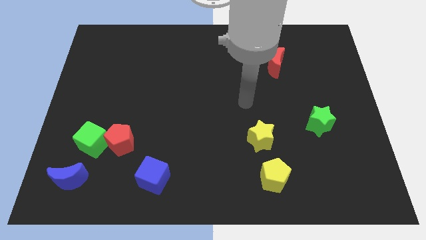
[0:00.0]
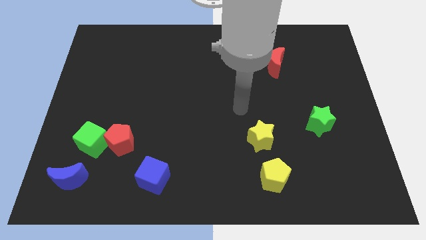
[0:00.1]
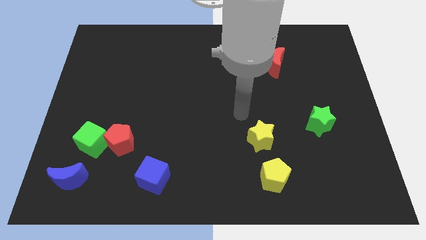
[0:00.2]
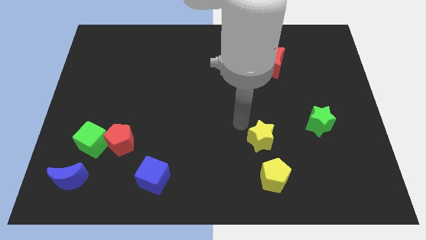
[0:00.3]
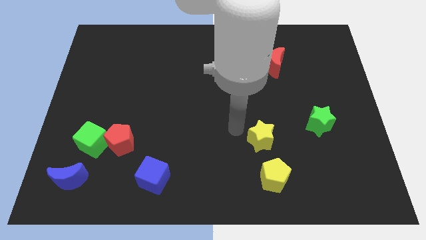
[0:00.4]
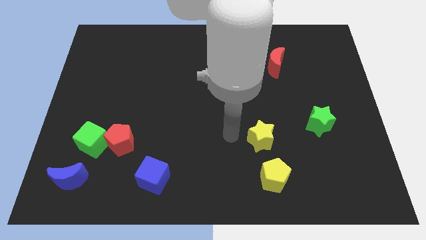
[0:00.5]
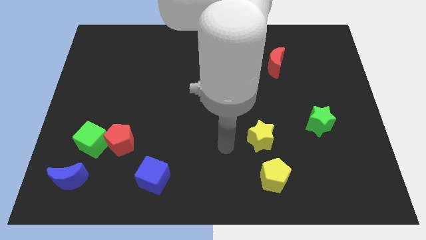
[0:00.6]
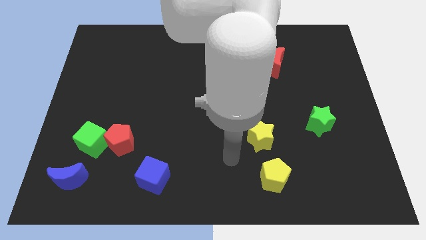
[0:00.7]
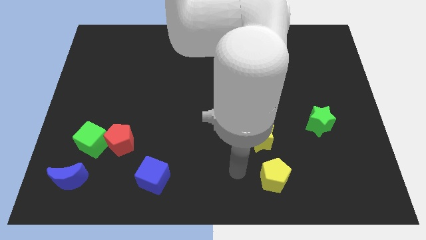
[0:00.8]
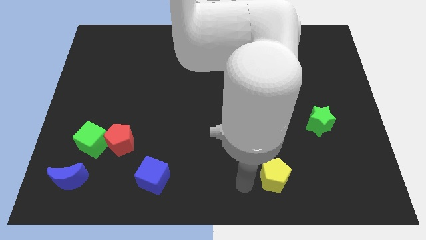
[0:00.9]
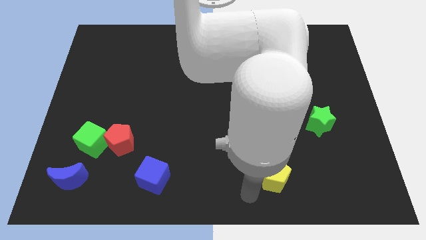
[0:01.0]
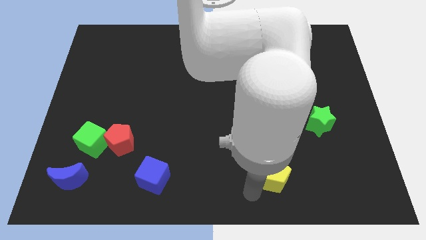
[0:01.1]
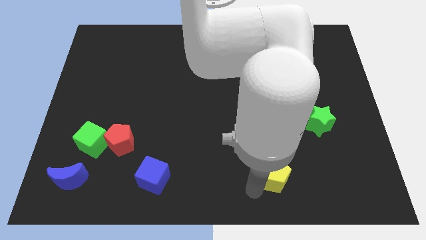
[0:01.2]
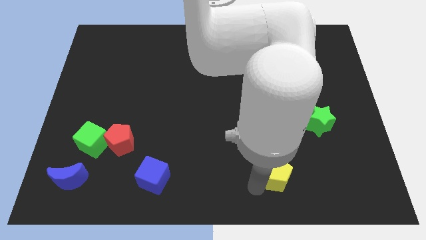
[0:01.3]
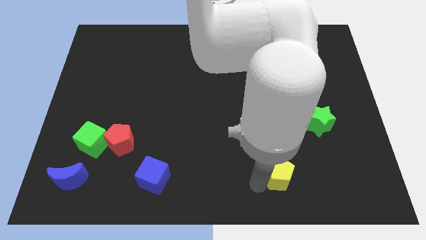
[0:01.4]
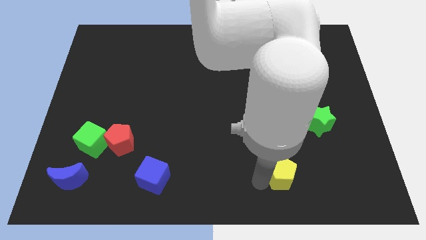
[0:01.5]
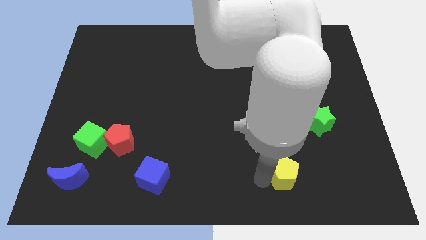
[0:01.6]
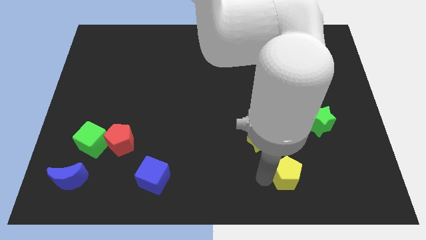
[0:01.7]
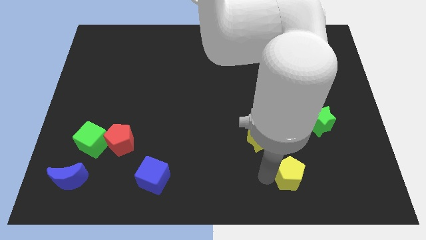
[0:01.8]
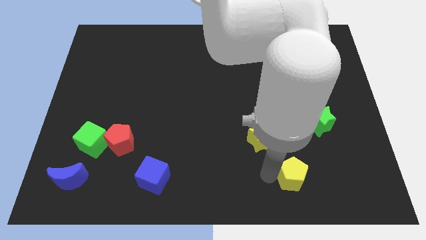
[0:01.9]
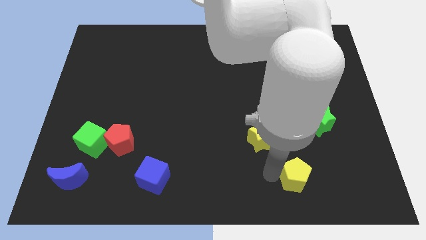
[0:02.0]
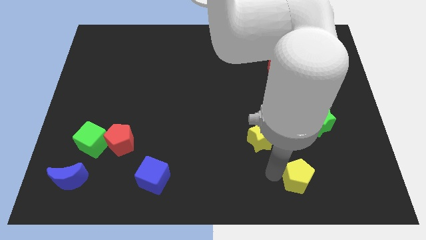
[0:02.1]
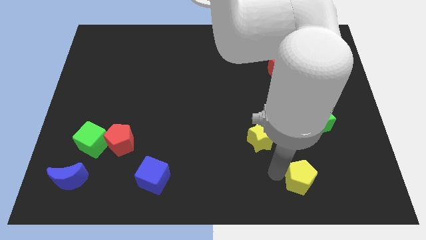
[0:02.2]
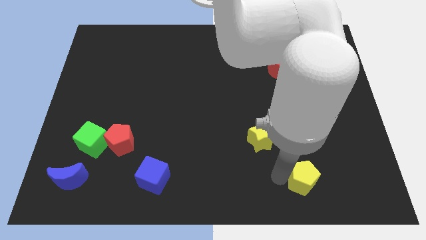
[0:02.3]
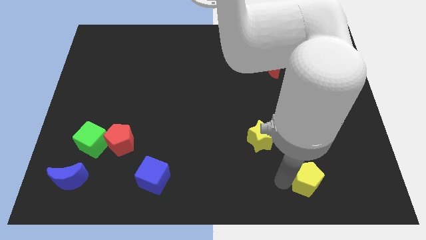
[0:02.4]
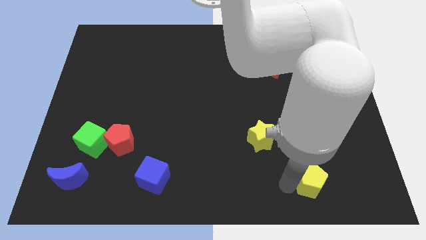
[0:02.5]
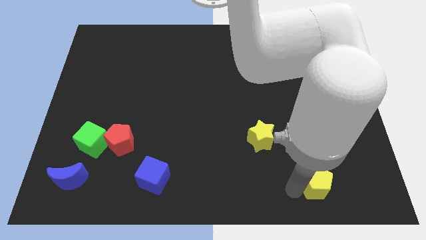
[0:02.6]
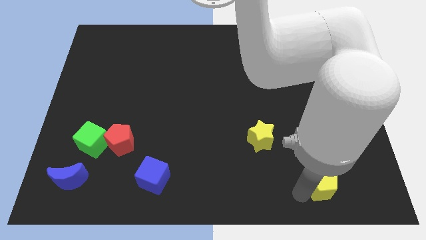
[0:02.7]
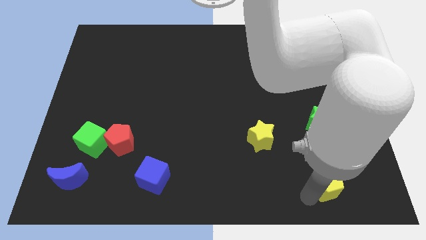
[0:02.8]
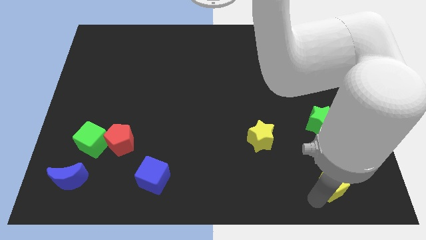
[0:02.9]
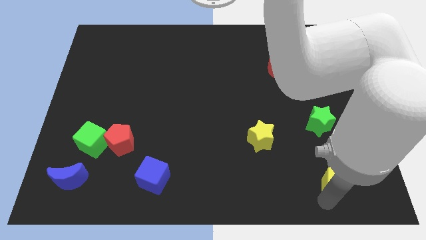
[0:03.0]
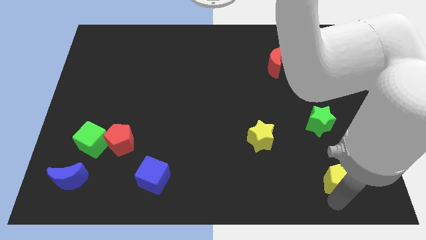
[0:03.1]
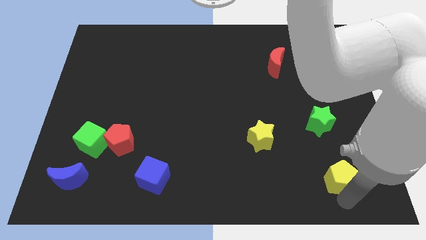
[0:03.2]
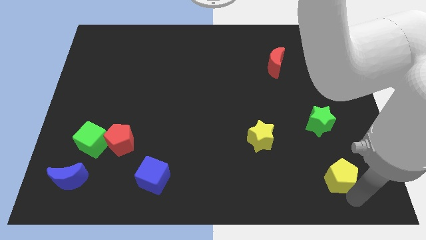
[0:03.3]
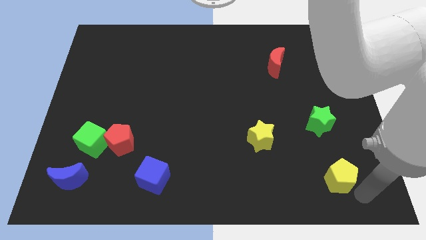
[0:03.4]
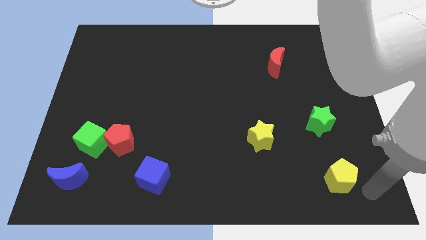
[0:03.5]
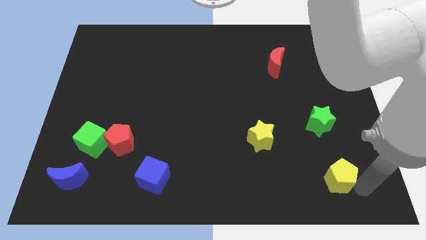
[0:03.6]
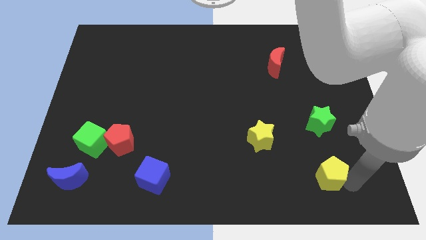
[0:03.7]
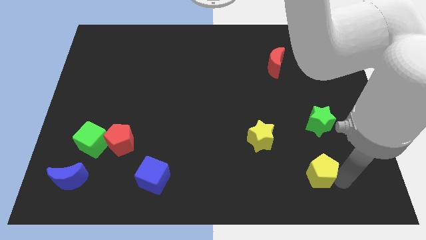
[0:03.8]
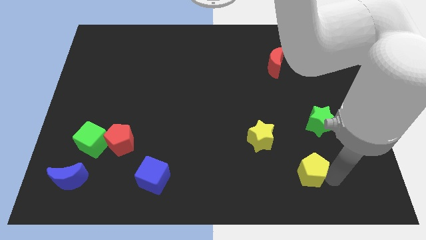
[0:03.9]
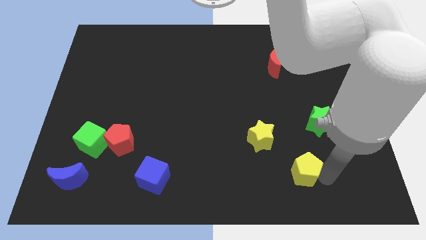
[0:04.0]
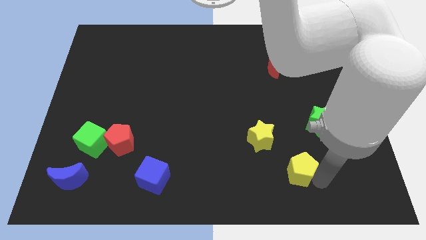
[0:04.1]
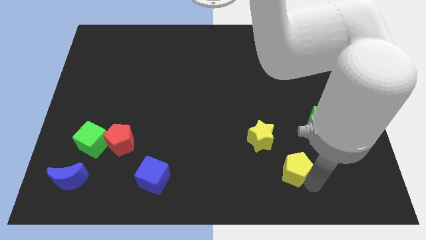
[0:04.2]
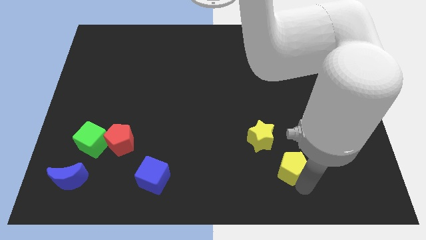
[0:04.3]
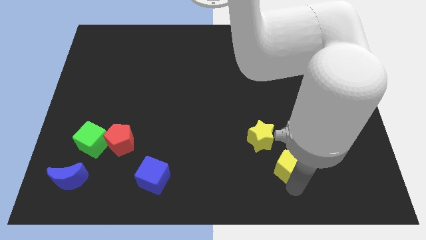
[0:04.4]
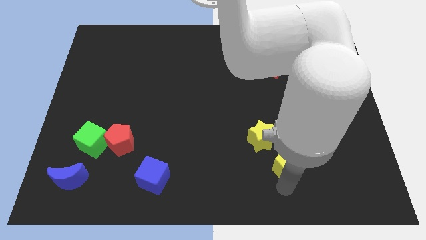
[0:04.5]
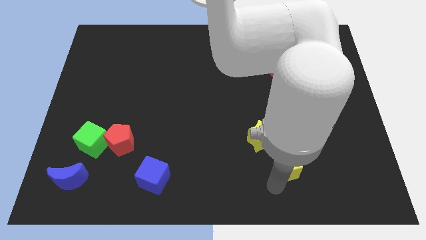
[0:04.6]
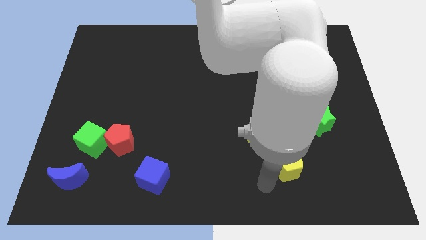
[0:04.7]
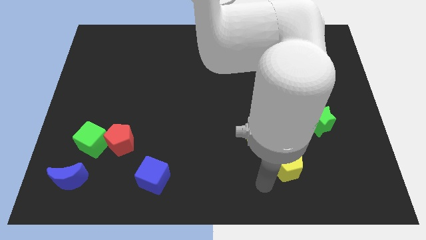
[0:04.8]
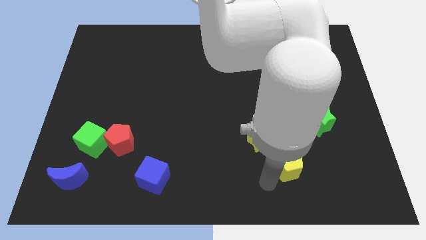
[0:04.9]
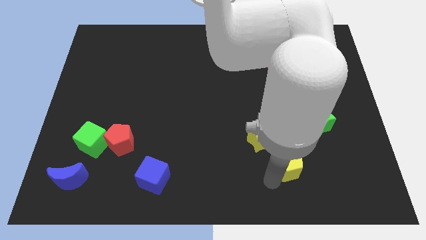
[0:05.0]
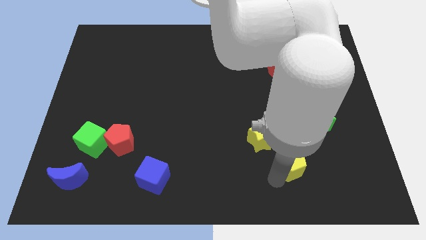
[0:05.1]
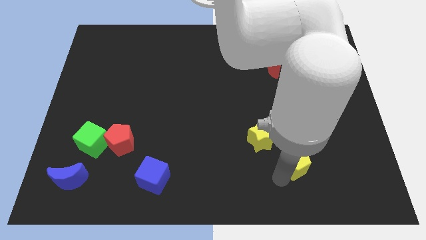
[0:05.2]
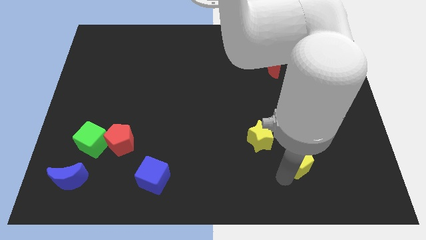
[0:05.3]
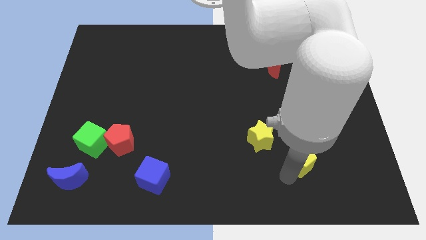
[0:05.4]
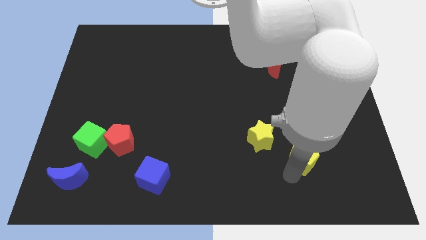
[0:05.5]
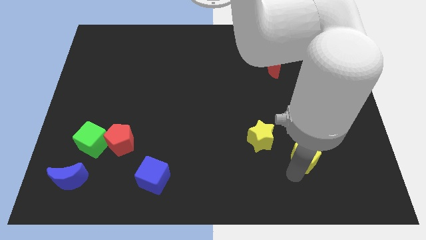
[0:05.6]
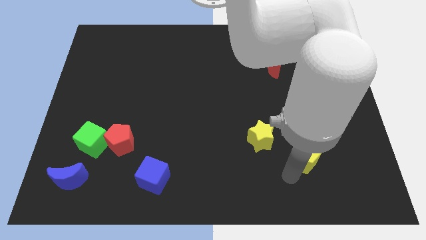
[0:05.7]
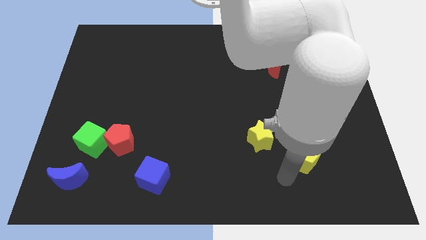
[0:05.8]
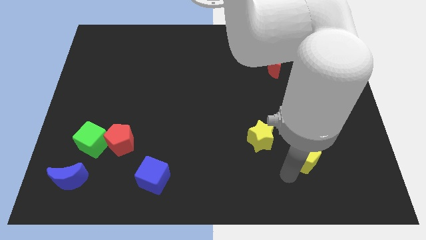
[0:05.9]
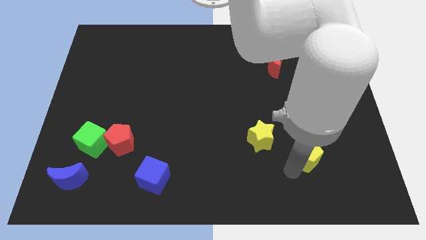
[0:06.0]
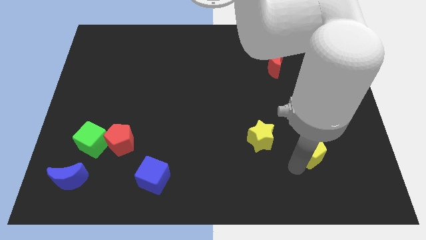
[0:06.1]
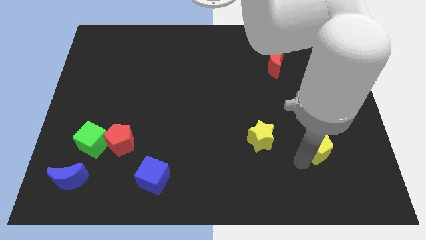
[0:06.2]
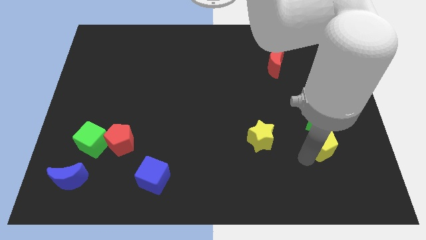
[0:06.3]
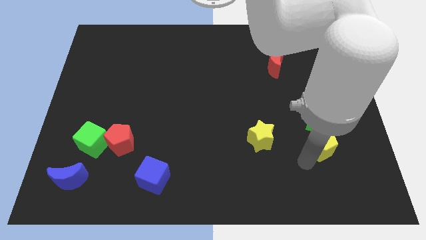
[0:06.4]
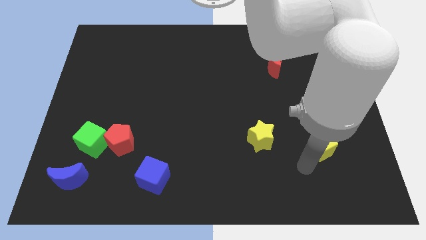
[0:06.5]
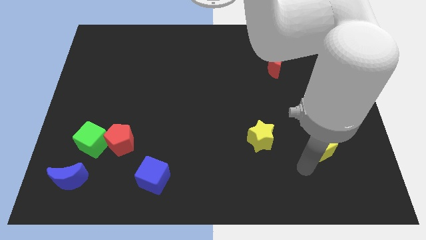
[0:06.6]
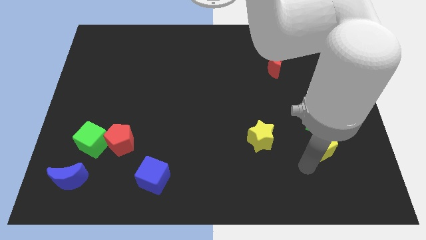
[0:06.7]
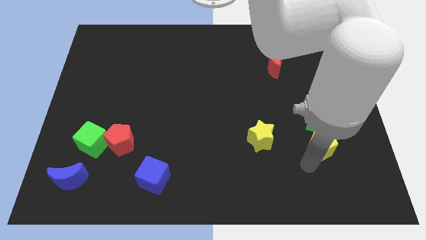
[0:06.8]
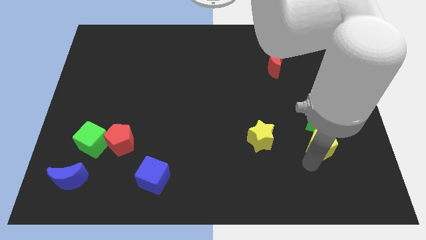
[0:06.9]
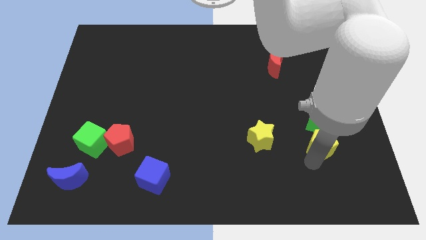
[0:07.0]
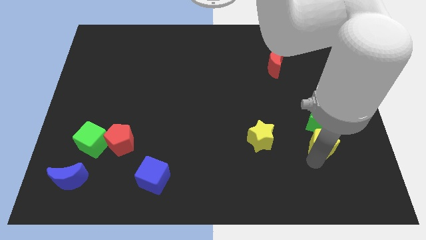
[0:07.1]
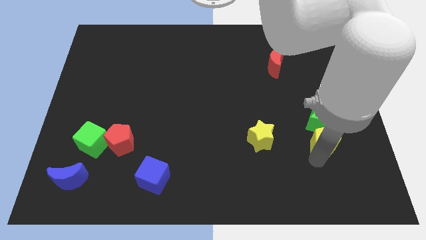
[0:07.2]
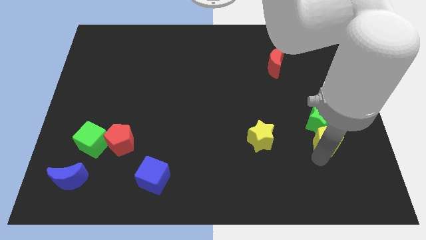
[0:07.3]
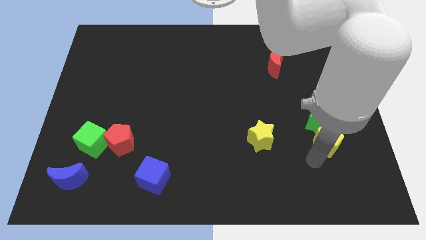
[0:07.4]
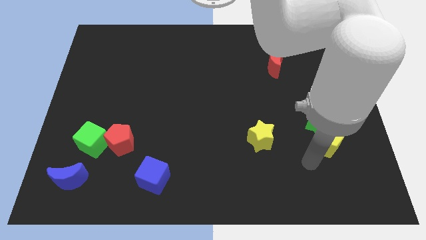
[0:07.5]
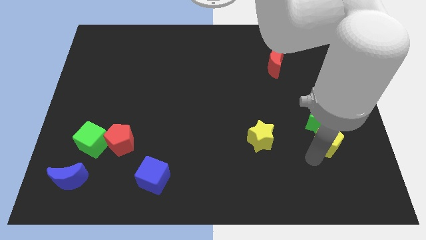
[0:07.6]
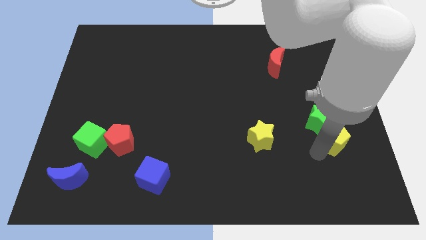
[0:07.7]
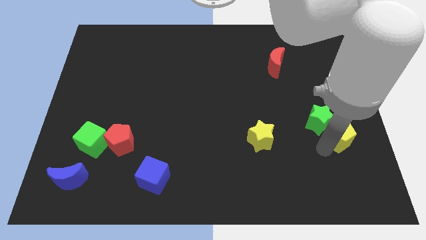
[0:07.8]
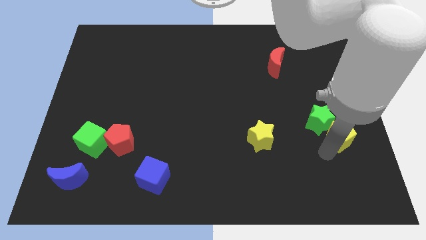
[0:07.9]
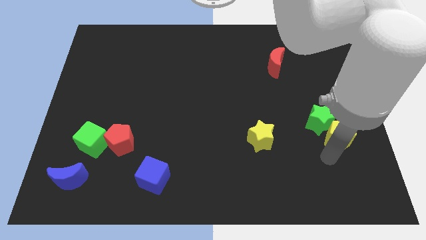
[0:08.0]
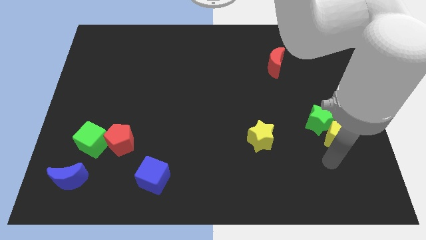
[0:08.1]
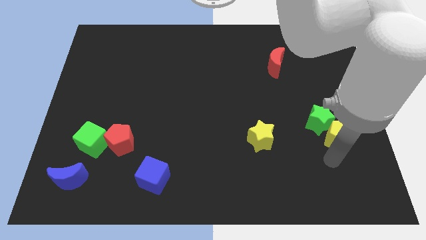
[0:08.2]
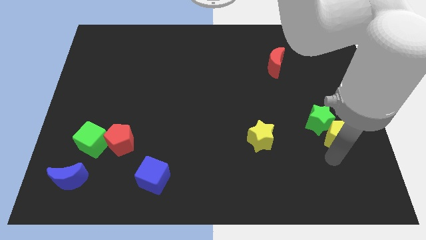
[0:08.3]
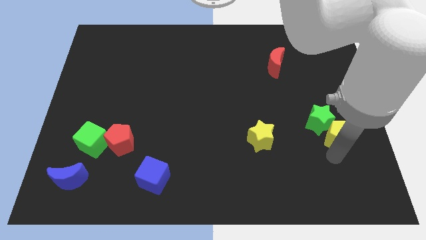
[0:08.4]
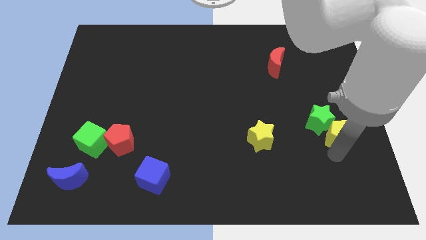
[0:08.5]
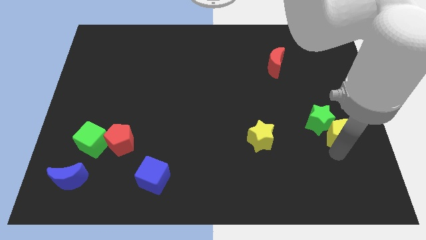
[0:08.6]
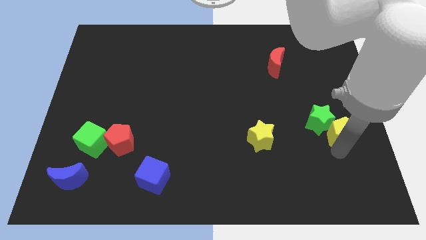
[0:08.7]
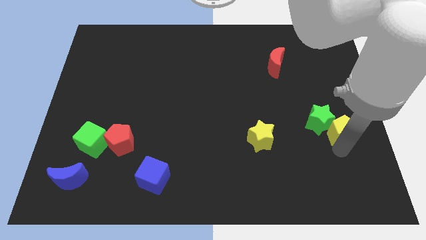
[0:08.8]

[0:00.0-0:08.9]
put the yellow pentagon to the center right
